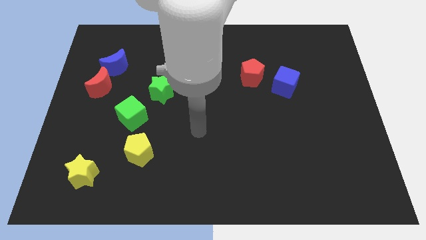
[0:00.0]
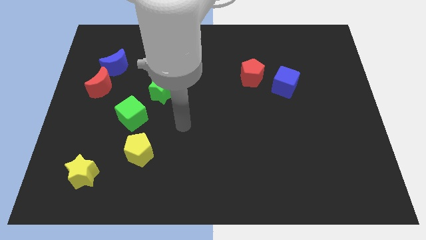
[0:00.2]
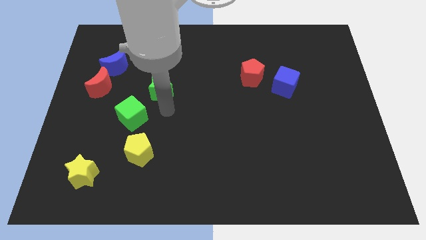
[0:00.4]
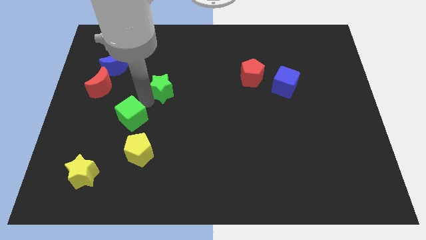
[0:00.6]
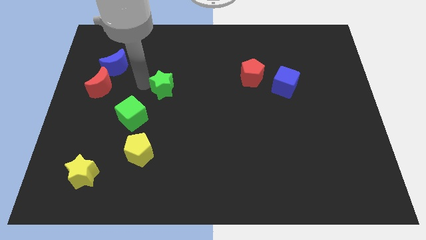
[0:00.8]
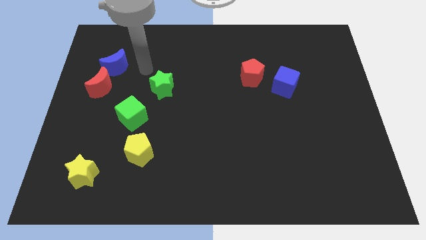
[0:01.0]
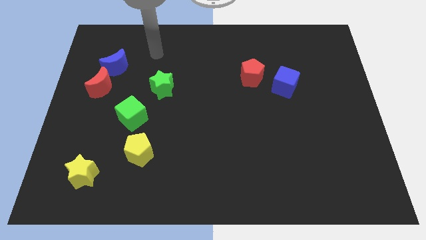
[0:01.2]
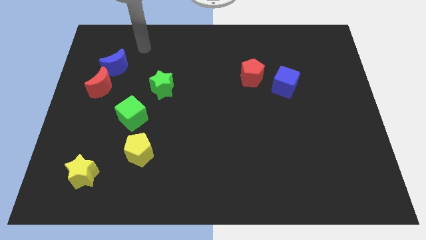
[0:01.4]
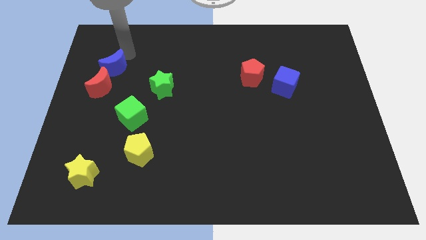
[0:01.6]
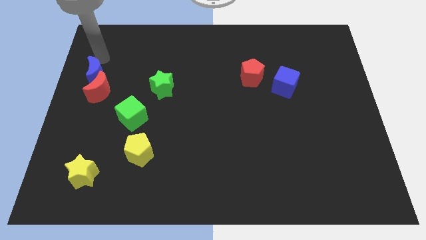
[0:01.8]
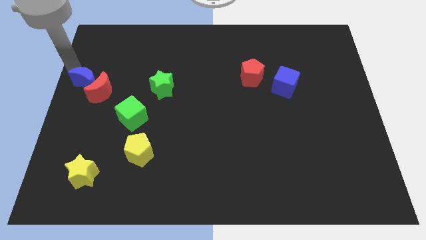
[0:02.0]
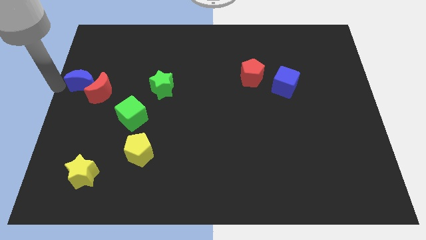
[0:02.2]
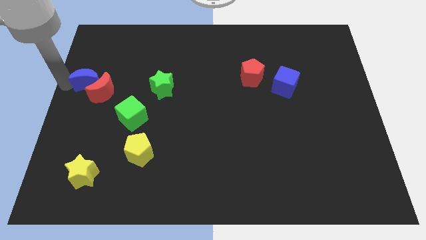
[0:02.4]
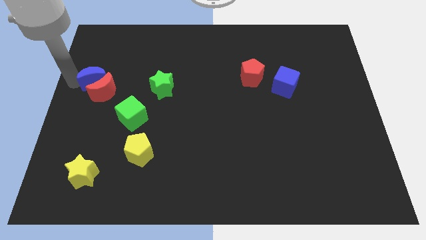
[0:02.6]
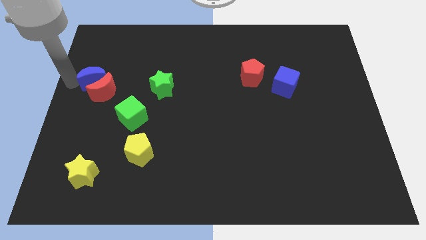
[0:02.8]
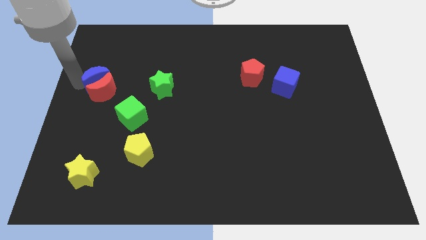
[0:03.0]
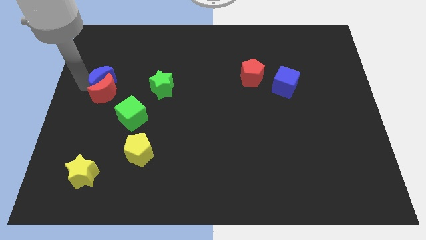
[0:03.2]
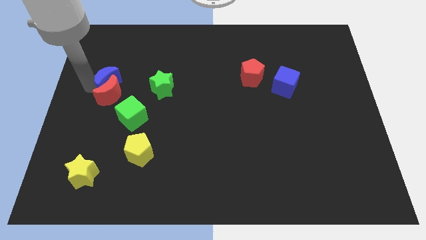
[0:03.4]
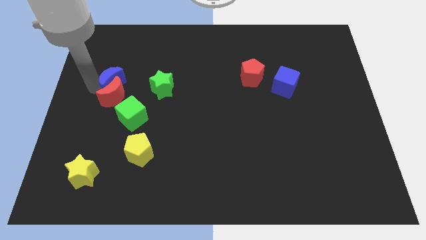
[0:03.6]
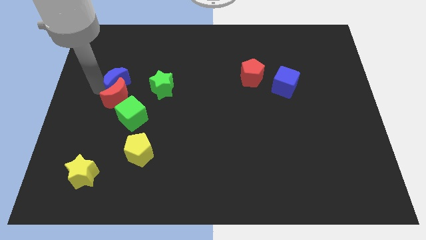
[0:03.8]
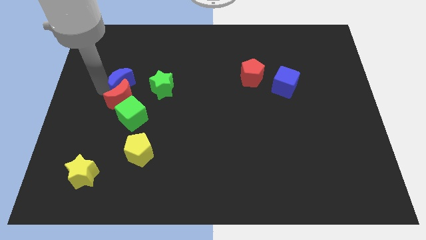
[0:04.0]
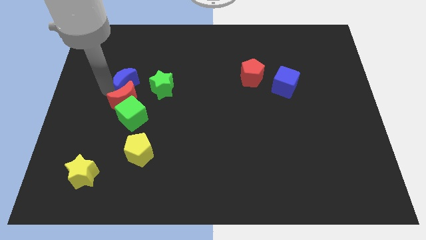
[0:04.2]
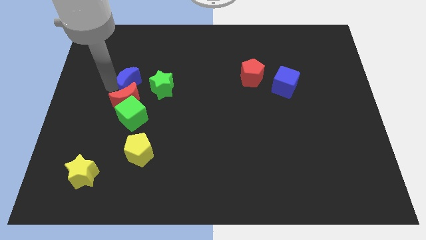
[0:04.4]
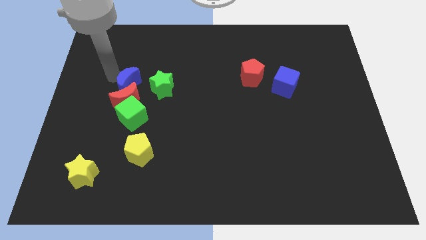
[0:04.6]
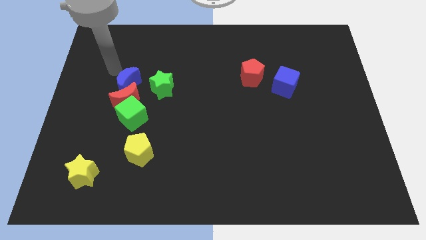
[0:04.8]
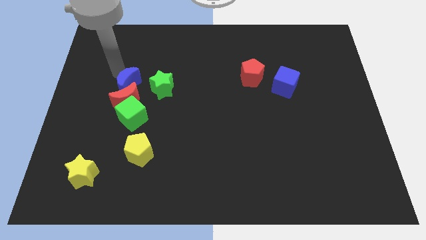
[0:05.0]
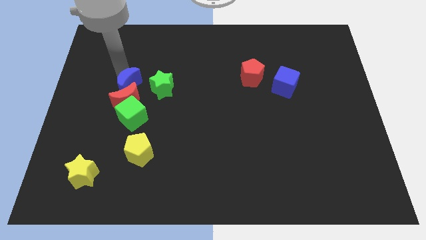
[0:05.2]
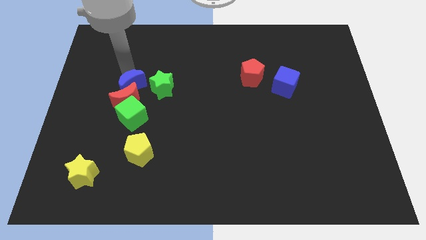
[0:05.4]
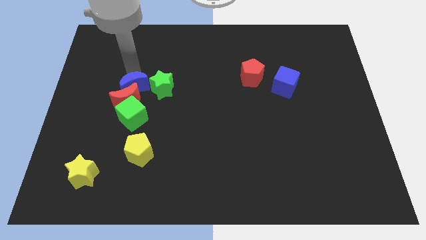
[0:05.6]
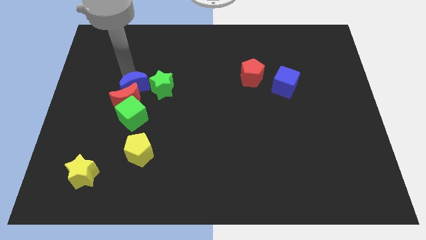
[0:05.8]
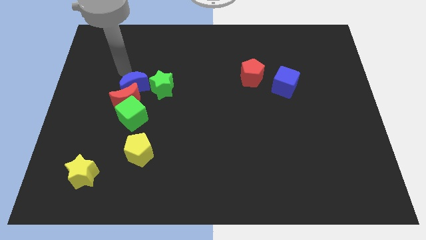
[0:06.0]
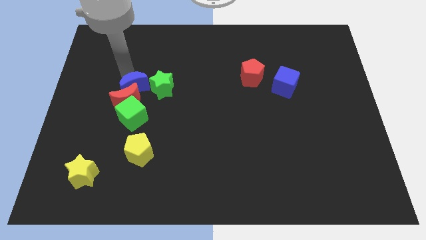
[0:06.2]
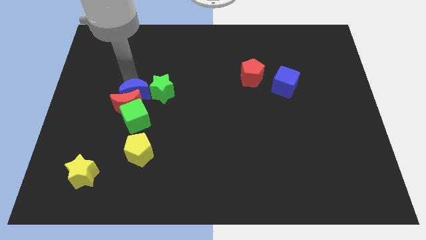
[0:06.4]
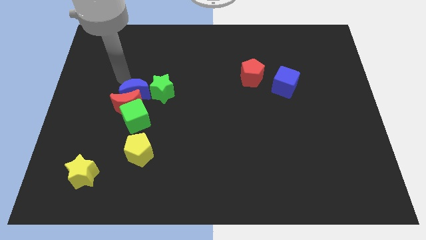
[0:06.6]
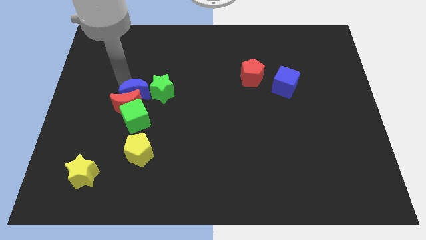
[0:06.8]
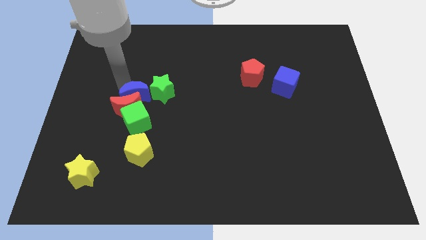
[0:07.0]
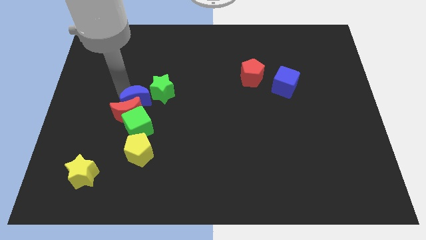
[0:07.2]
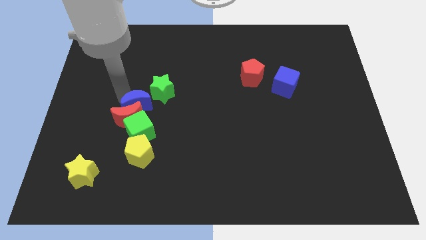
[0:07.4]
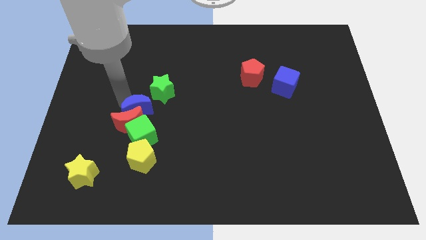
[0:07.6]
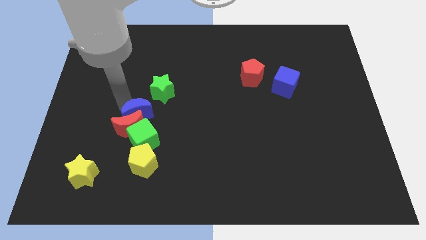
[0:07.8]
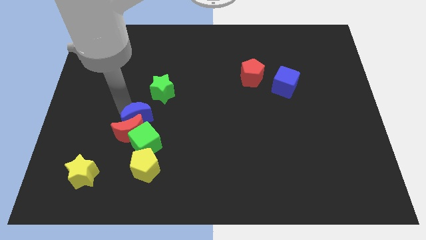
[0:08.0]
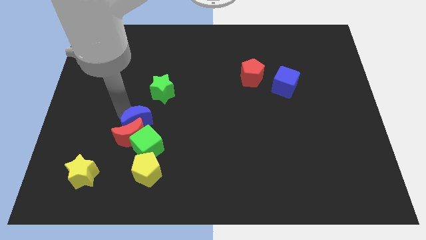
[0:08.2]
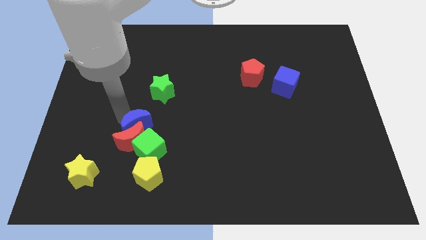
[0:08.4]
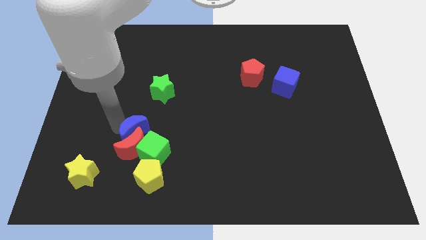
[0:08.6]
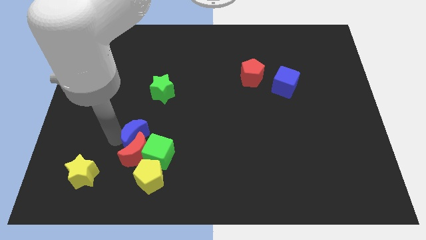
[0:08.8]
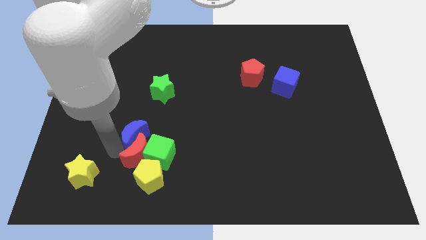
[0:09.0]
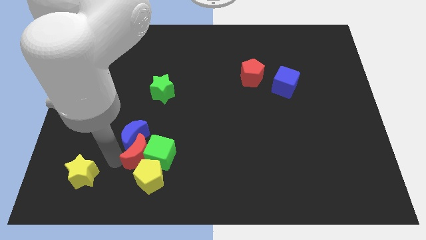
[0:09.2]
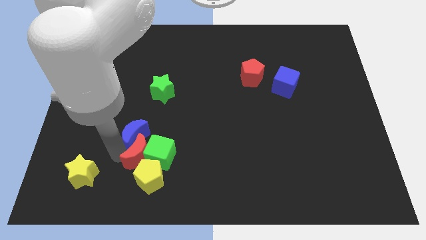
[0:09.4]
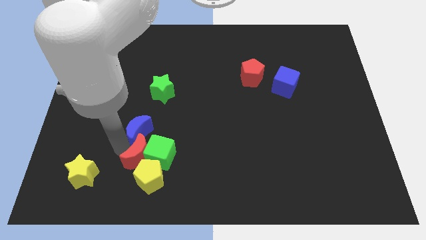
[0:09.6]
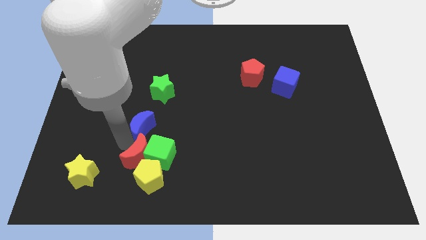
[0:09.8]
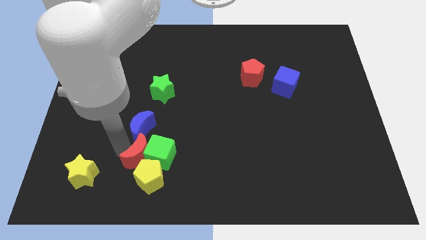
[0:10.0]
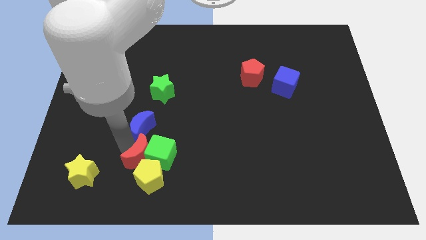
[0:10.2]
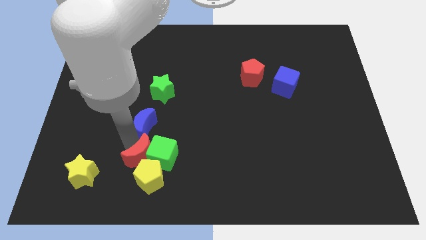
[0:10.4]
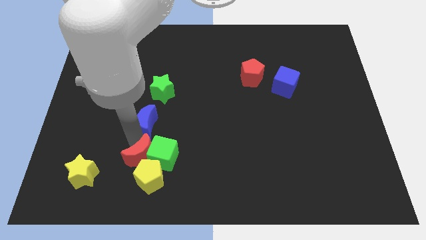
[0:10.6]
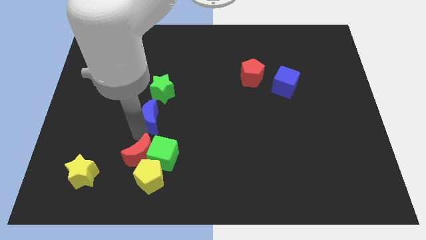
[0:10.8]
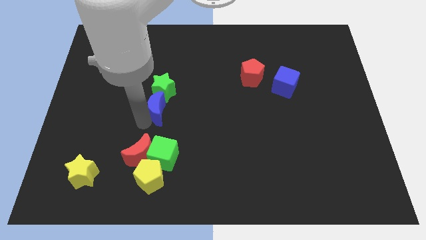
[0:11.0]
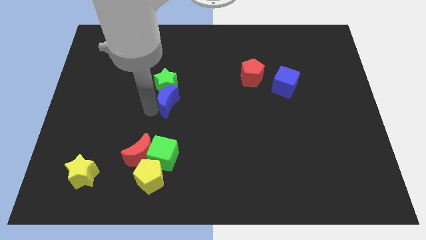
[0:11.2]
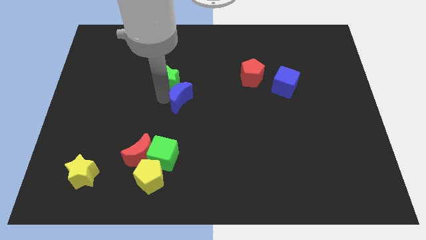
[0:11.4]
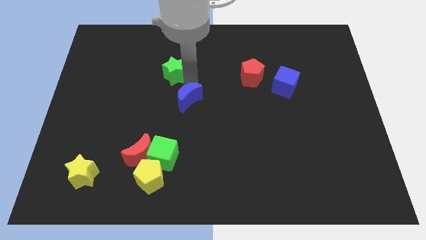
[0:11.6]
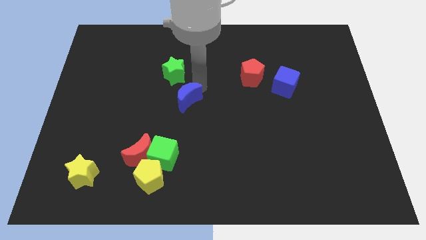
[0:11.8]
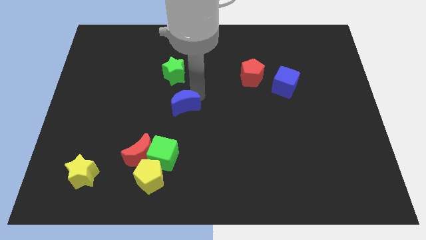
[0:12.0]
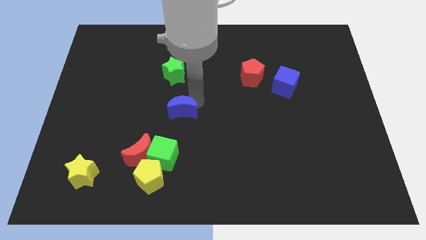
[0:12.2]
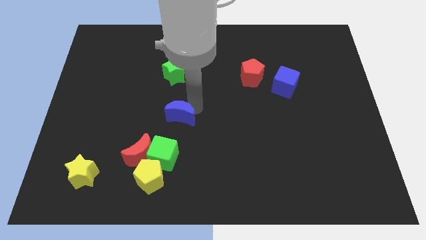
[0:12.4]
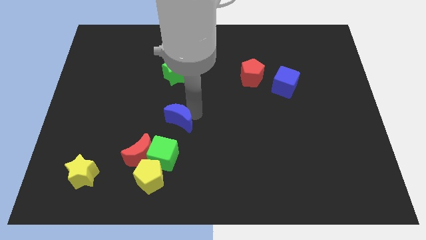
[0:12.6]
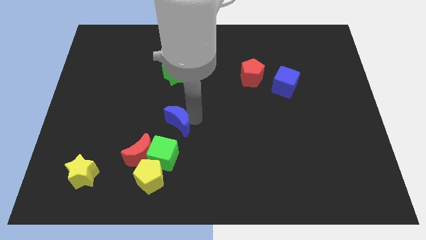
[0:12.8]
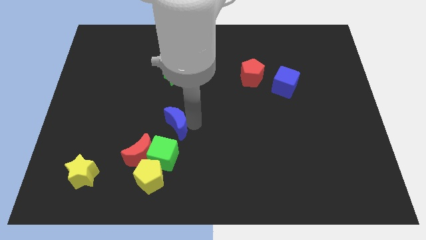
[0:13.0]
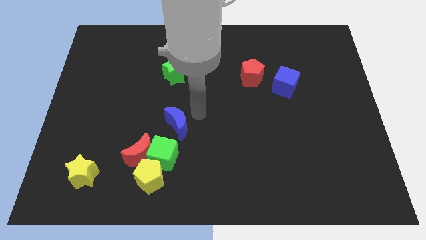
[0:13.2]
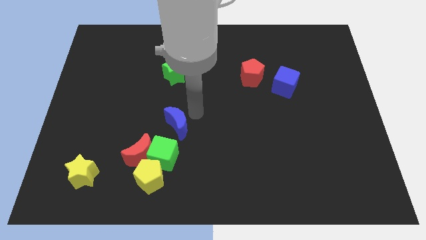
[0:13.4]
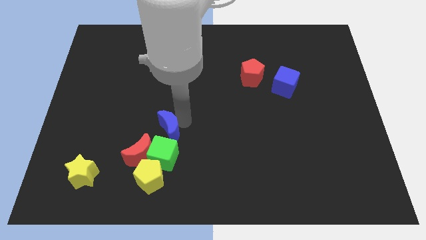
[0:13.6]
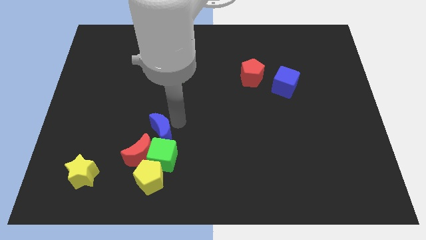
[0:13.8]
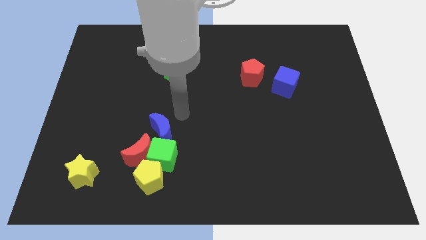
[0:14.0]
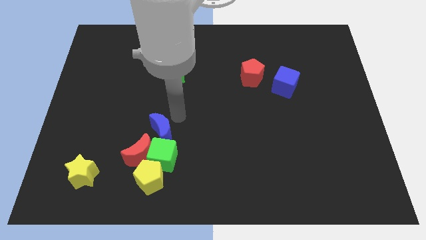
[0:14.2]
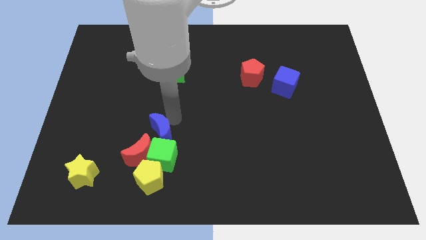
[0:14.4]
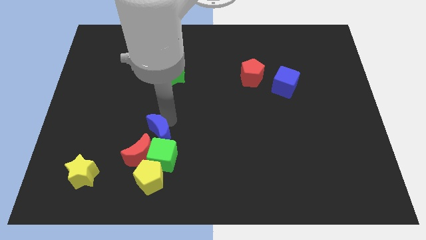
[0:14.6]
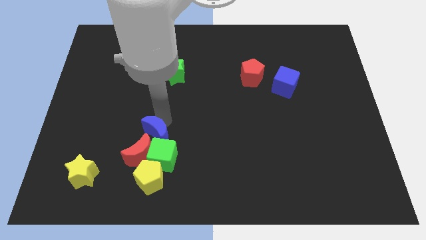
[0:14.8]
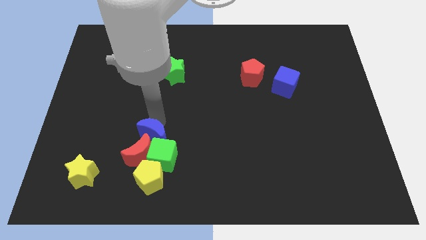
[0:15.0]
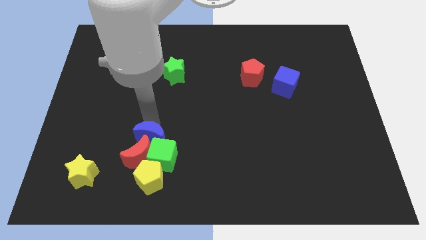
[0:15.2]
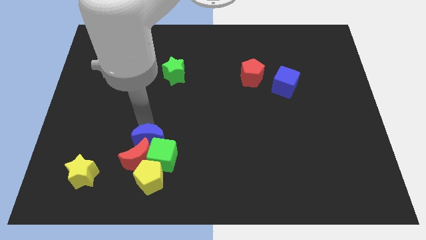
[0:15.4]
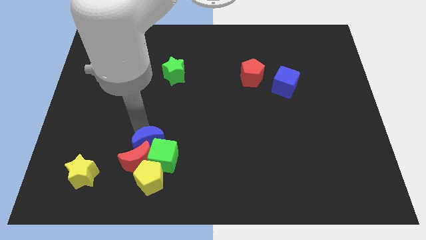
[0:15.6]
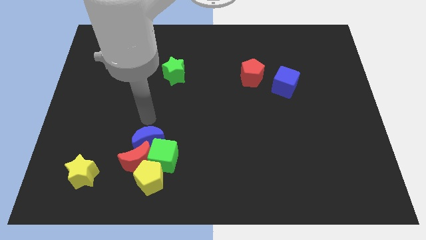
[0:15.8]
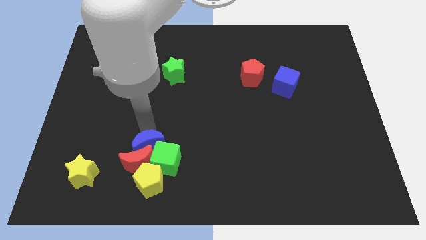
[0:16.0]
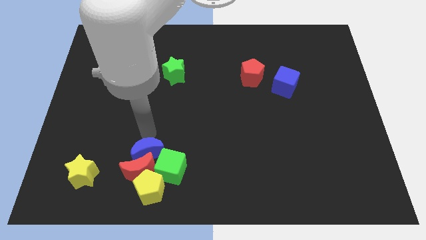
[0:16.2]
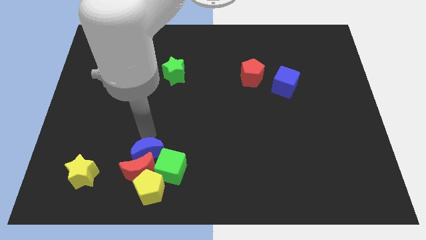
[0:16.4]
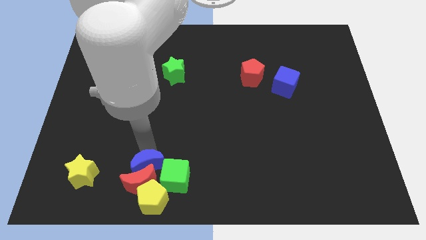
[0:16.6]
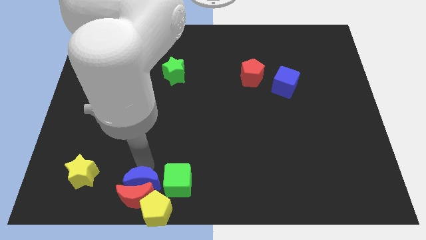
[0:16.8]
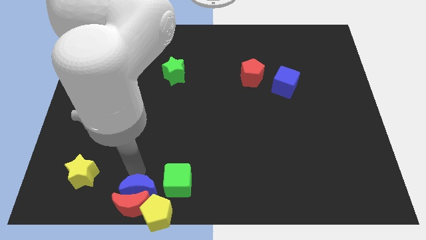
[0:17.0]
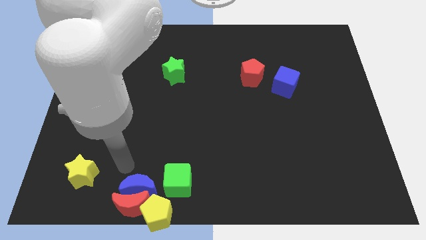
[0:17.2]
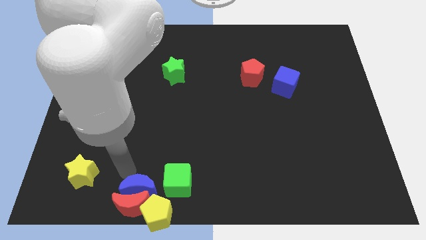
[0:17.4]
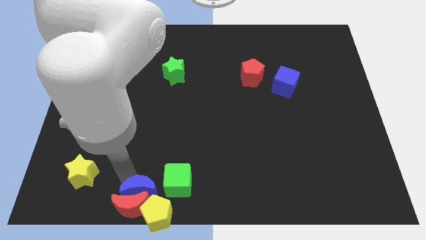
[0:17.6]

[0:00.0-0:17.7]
slide the blue moon next to the yellow pentagon
